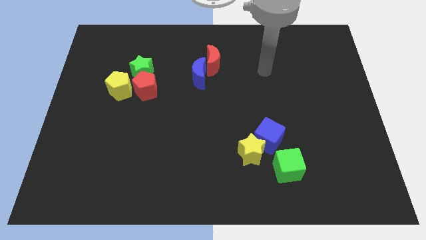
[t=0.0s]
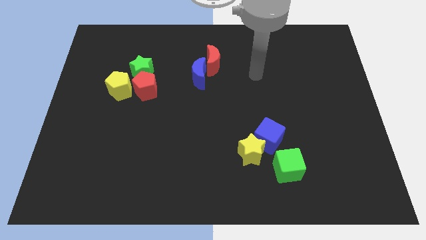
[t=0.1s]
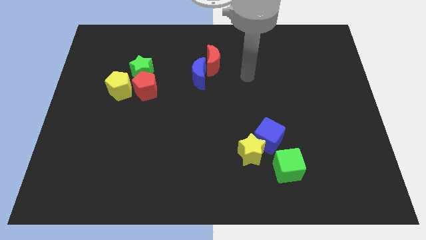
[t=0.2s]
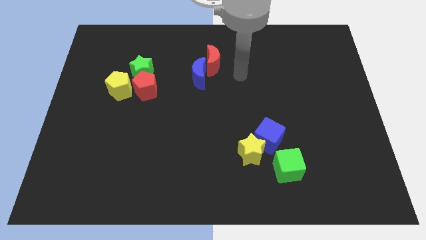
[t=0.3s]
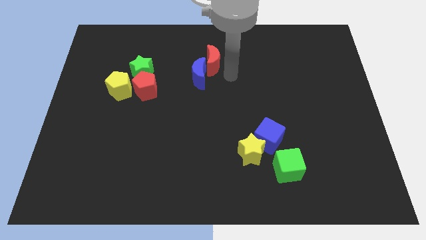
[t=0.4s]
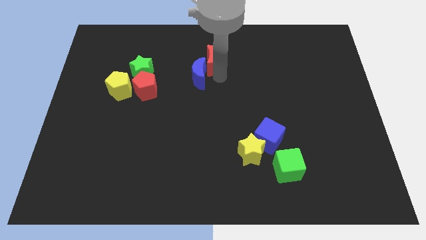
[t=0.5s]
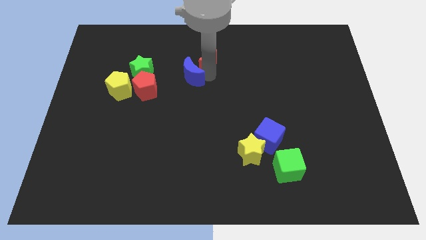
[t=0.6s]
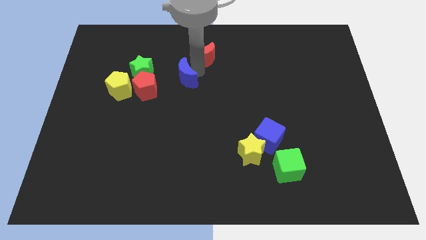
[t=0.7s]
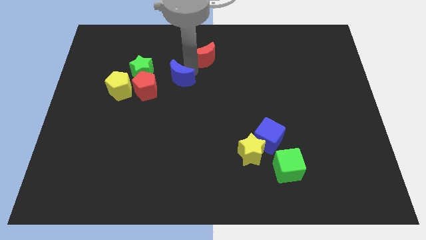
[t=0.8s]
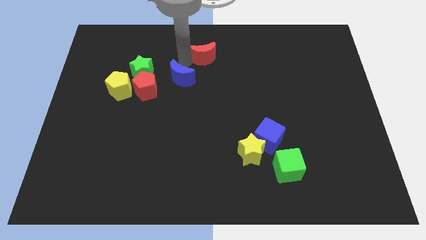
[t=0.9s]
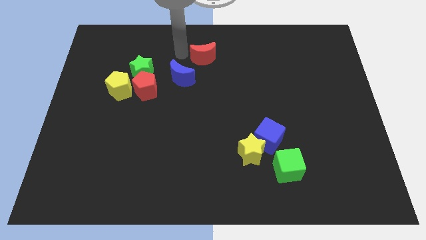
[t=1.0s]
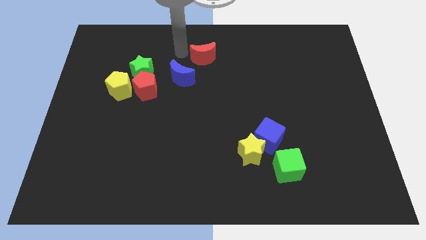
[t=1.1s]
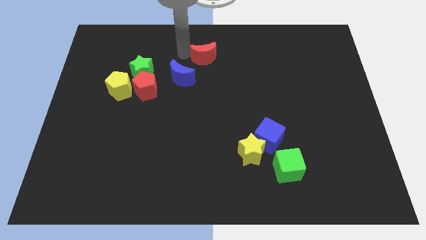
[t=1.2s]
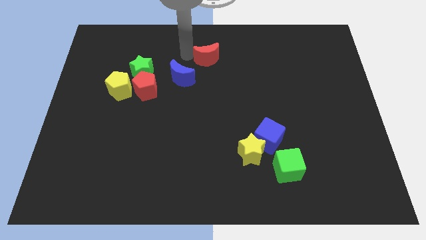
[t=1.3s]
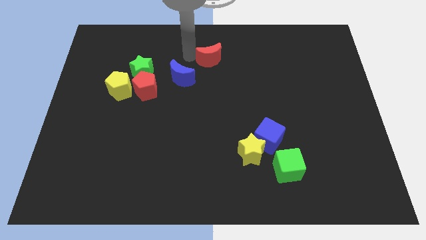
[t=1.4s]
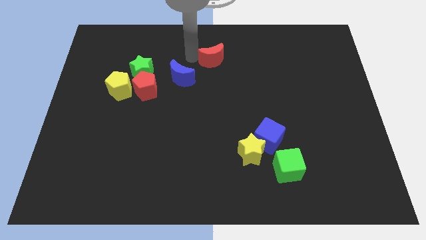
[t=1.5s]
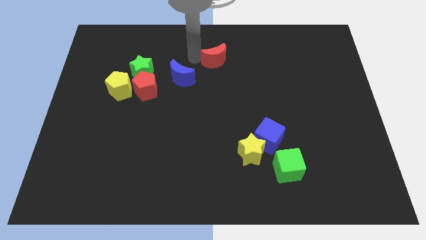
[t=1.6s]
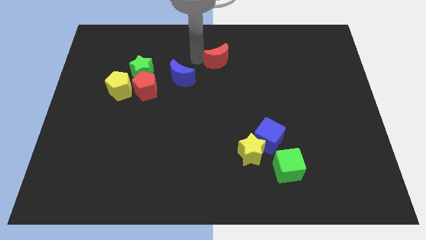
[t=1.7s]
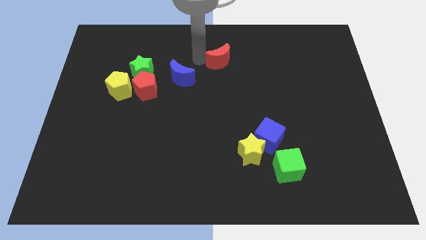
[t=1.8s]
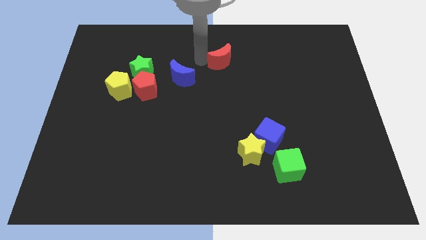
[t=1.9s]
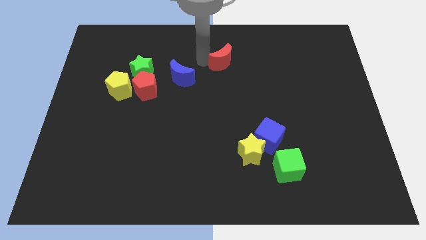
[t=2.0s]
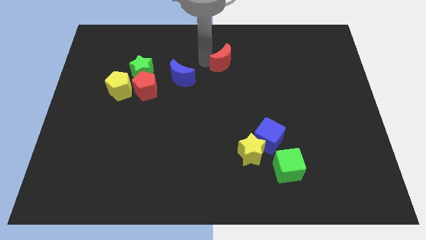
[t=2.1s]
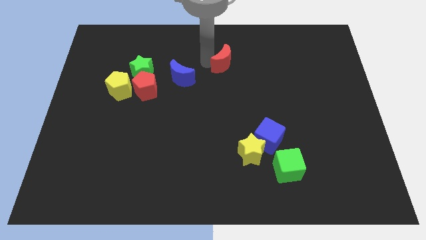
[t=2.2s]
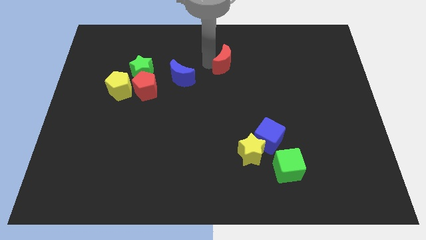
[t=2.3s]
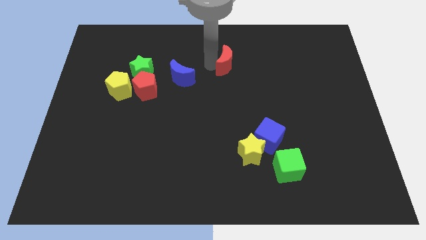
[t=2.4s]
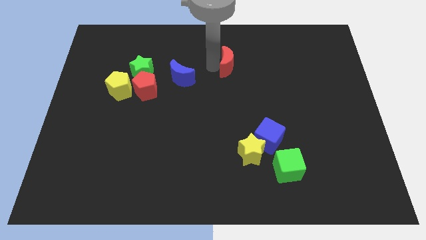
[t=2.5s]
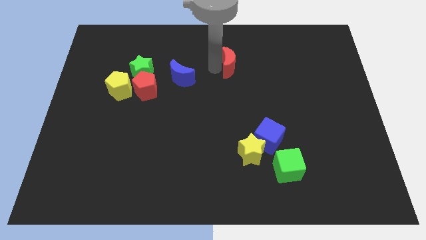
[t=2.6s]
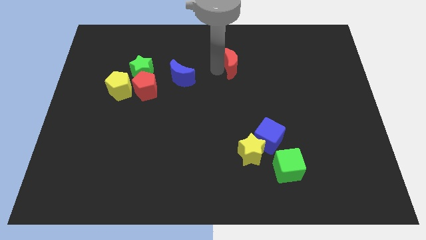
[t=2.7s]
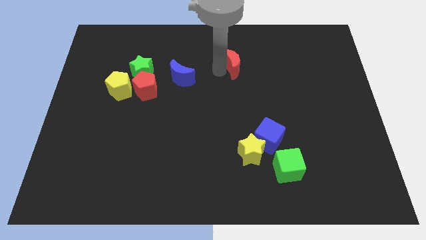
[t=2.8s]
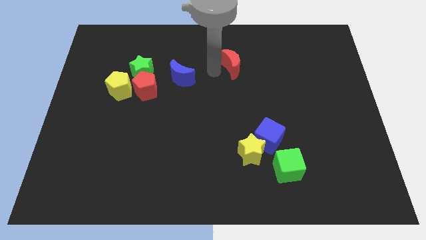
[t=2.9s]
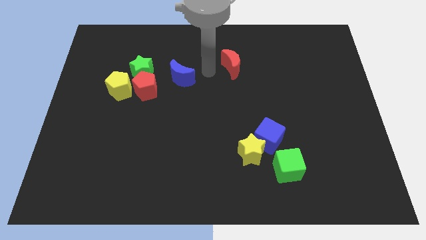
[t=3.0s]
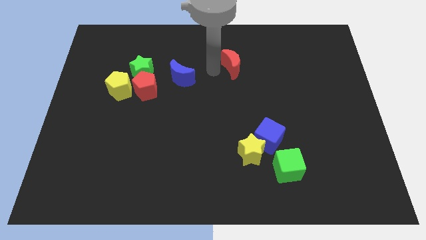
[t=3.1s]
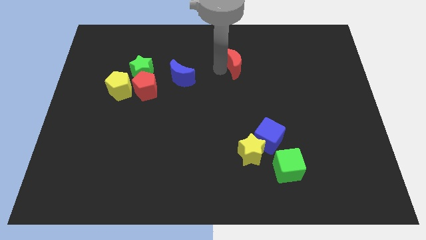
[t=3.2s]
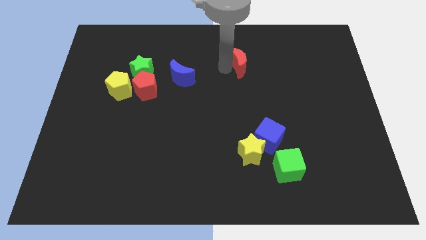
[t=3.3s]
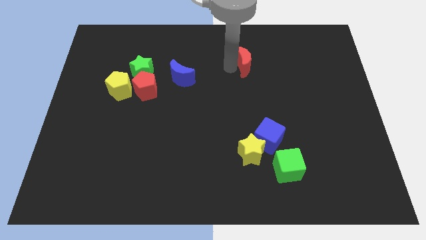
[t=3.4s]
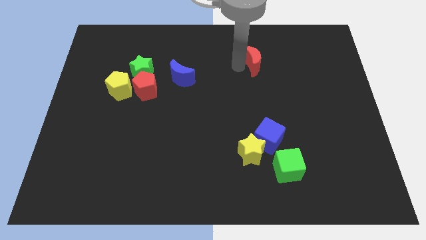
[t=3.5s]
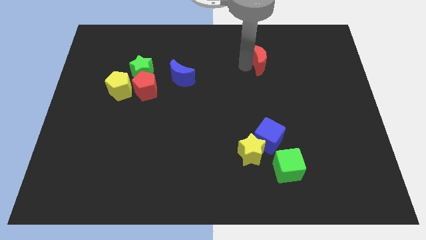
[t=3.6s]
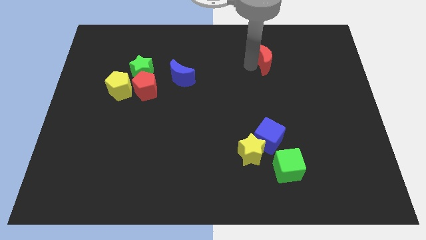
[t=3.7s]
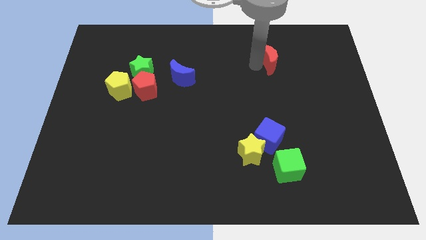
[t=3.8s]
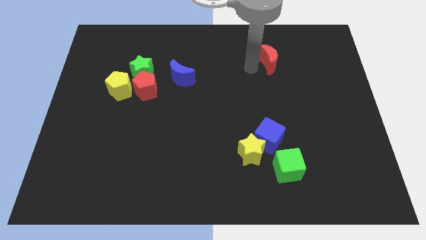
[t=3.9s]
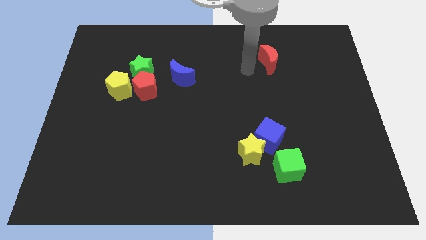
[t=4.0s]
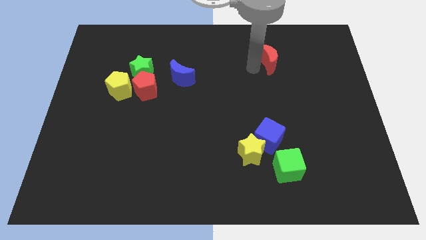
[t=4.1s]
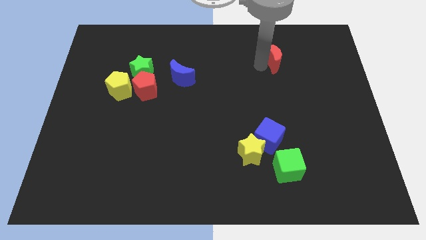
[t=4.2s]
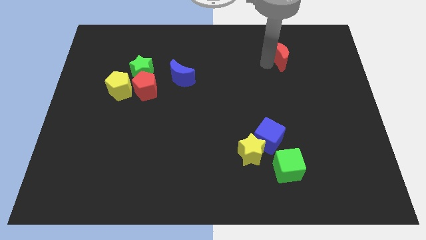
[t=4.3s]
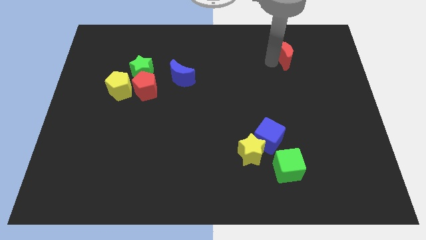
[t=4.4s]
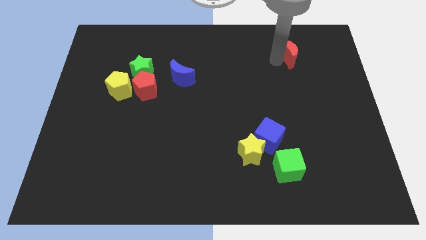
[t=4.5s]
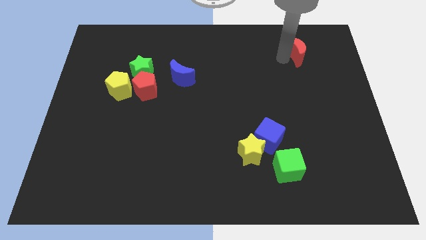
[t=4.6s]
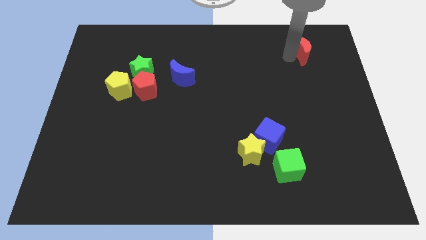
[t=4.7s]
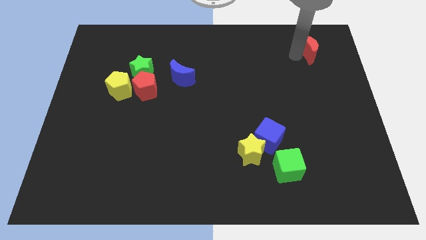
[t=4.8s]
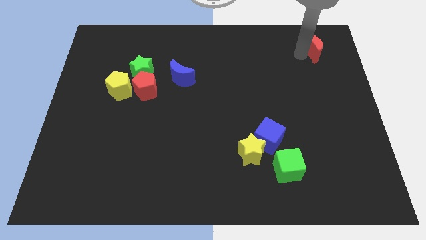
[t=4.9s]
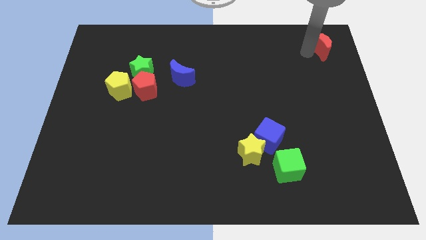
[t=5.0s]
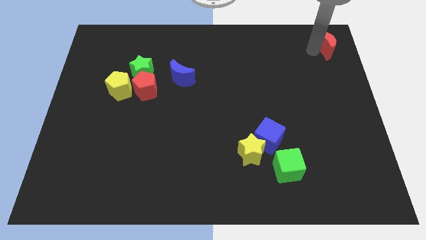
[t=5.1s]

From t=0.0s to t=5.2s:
slide the red moon to the top right

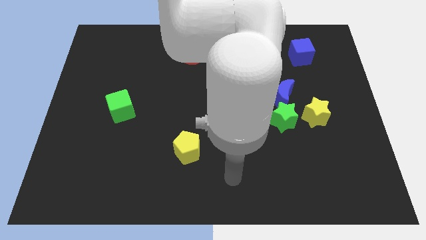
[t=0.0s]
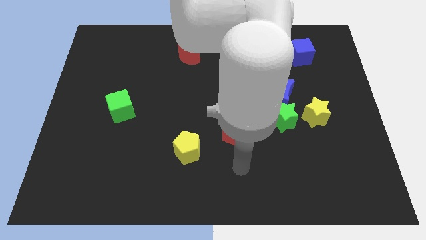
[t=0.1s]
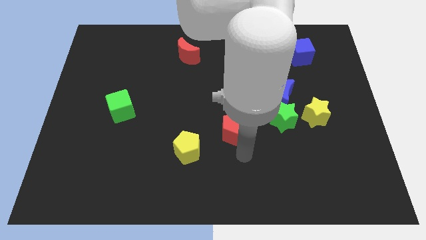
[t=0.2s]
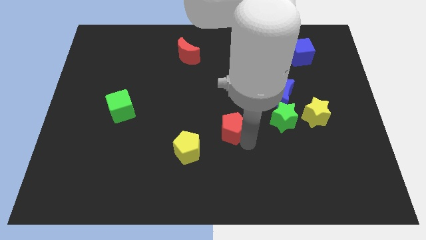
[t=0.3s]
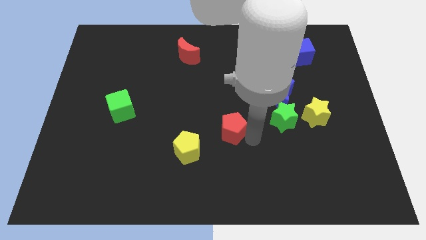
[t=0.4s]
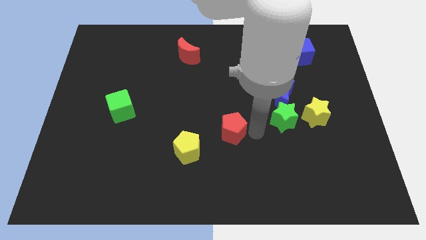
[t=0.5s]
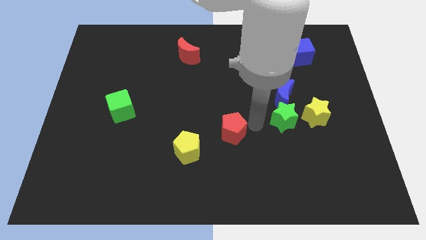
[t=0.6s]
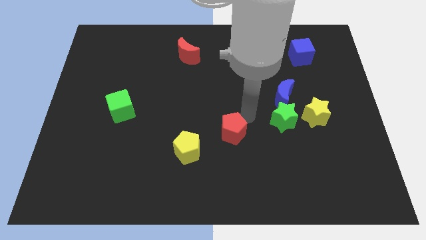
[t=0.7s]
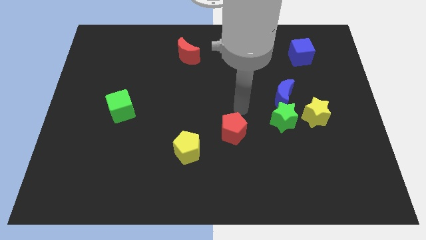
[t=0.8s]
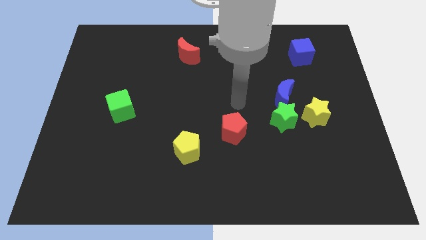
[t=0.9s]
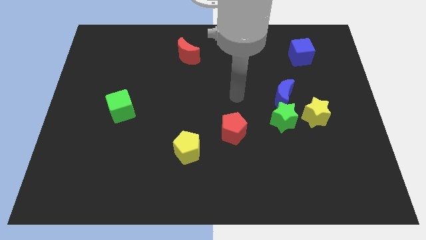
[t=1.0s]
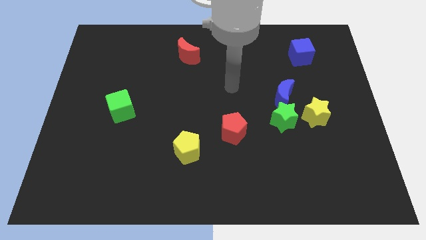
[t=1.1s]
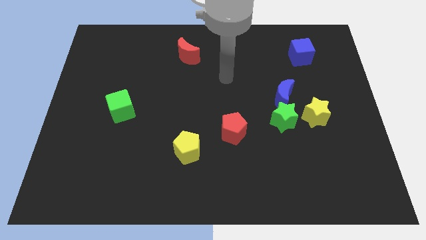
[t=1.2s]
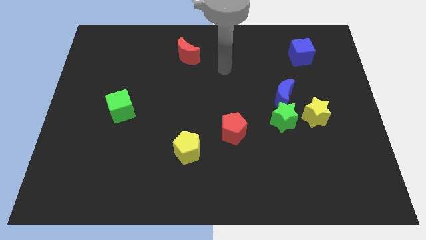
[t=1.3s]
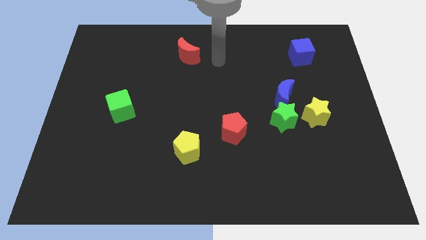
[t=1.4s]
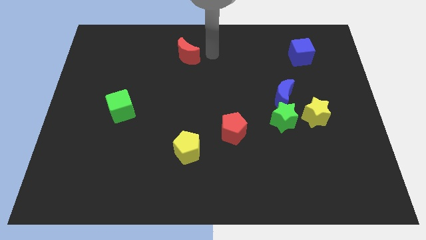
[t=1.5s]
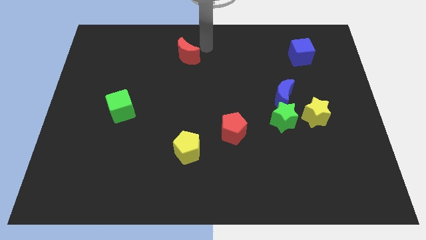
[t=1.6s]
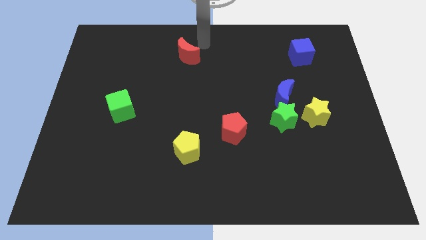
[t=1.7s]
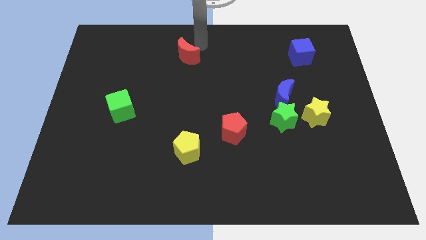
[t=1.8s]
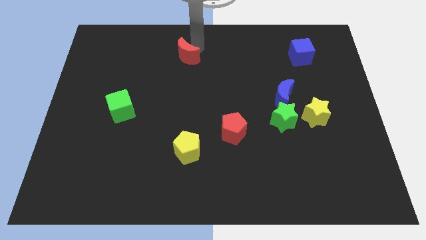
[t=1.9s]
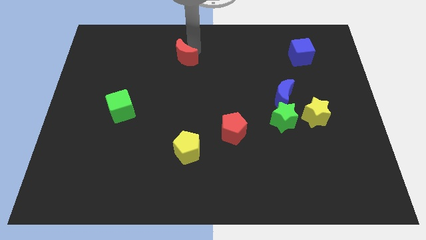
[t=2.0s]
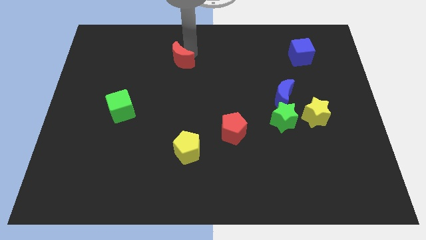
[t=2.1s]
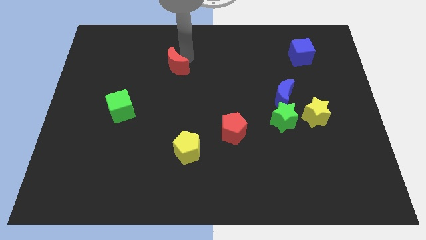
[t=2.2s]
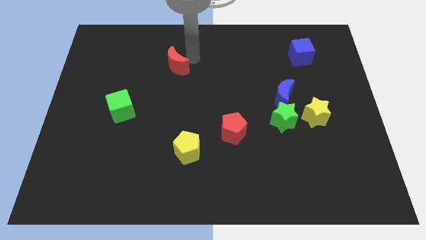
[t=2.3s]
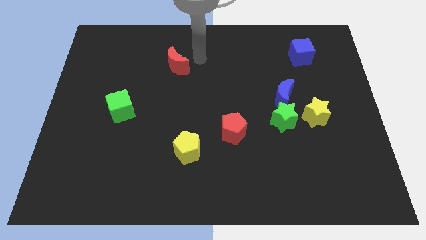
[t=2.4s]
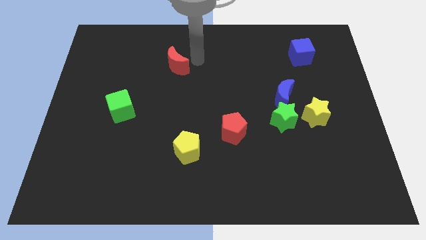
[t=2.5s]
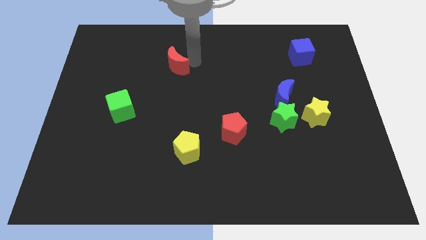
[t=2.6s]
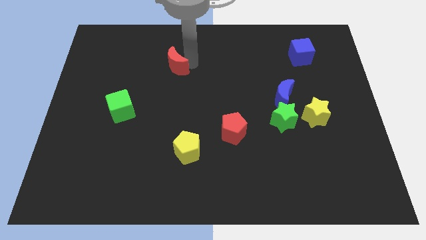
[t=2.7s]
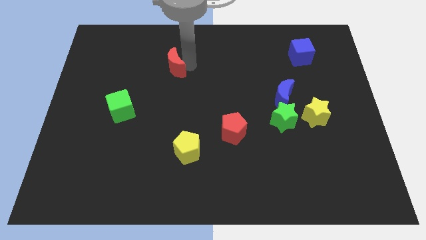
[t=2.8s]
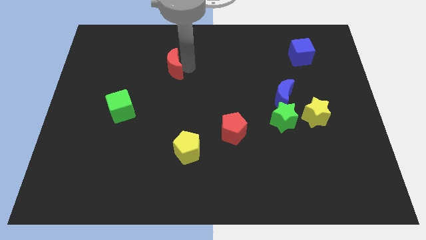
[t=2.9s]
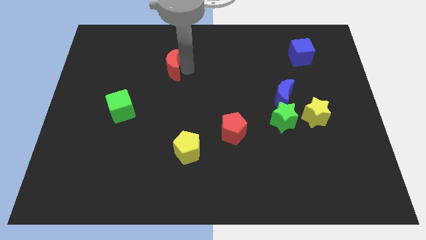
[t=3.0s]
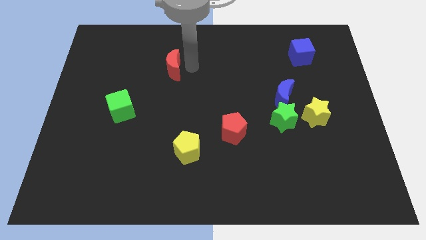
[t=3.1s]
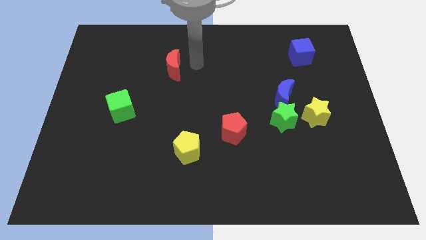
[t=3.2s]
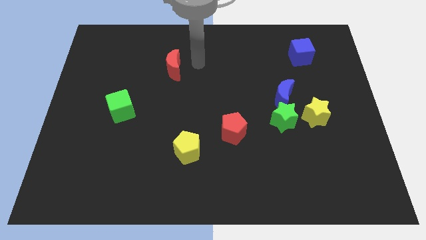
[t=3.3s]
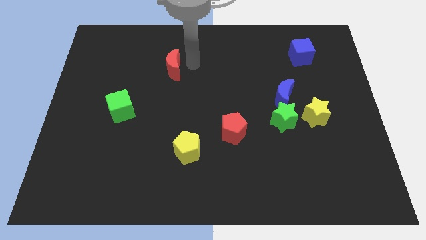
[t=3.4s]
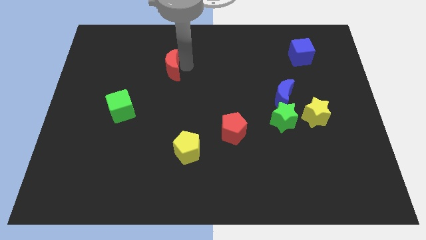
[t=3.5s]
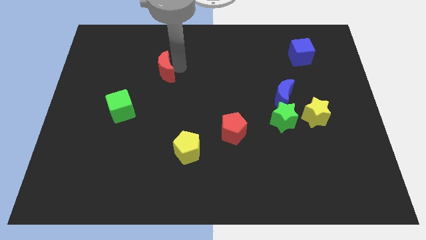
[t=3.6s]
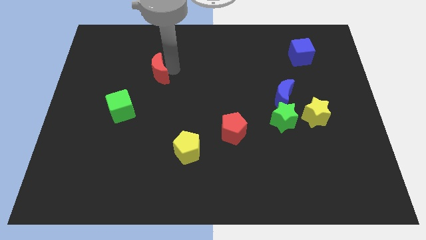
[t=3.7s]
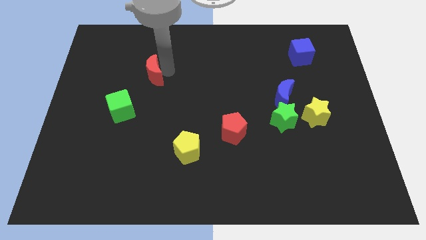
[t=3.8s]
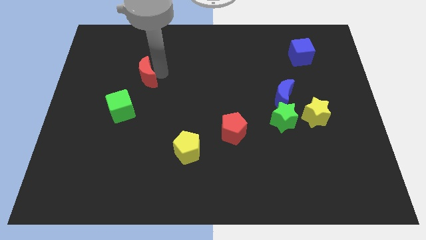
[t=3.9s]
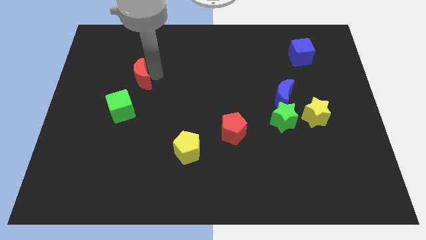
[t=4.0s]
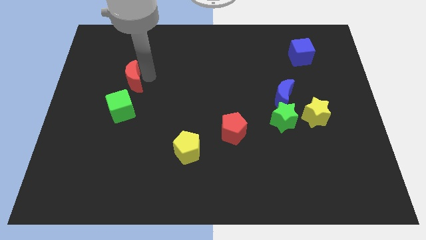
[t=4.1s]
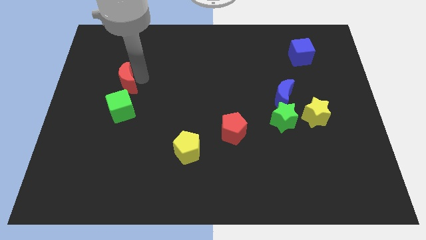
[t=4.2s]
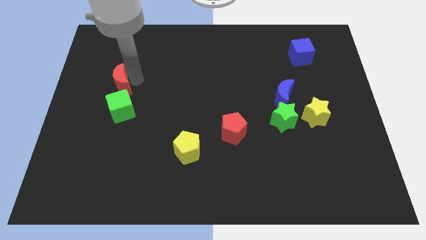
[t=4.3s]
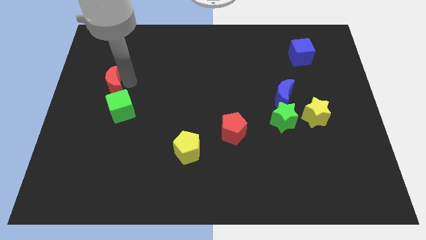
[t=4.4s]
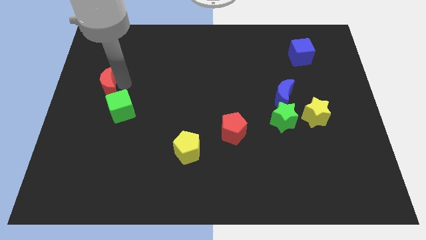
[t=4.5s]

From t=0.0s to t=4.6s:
push the red moon to the left side of the board
